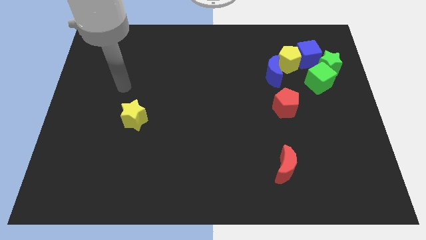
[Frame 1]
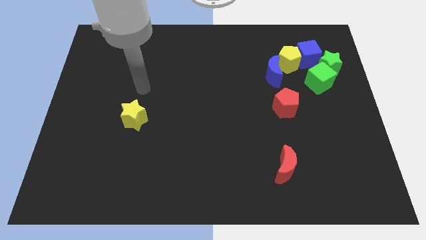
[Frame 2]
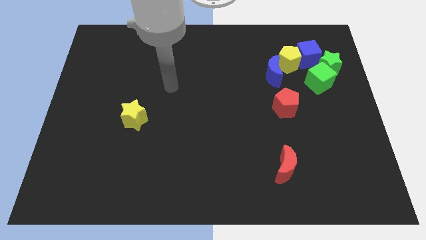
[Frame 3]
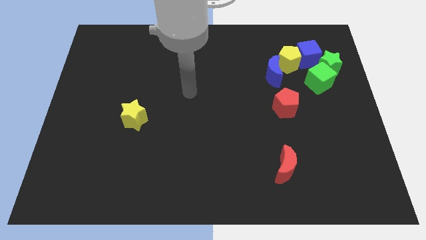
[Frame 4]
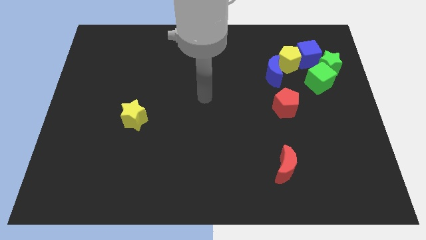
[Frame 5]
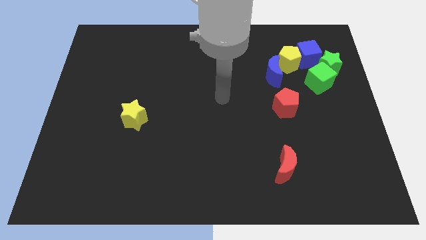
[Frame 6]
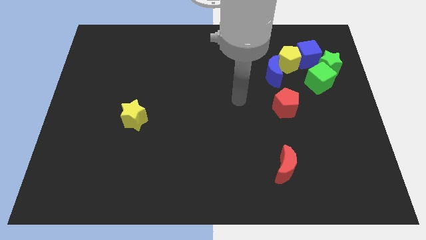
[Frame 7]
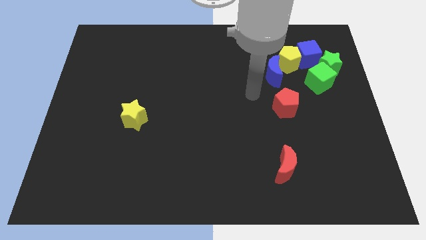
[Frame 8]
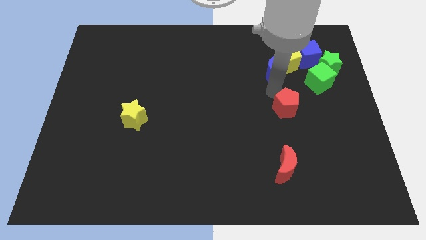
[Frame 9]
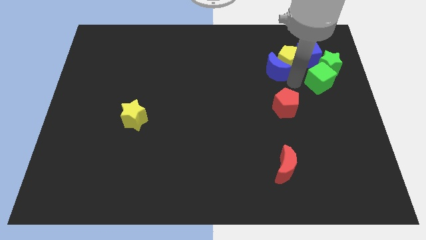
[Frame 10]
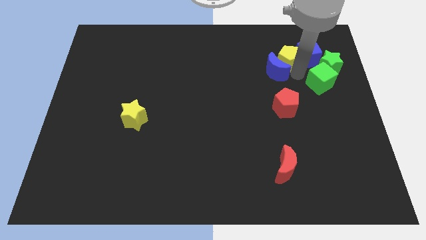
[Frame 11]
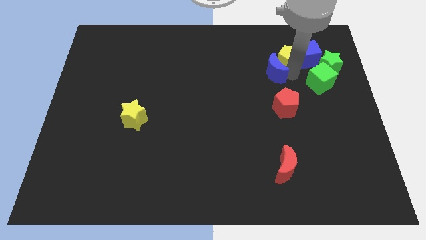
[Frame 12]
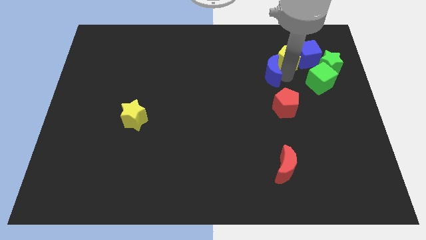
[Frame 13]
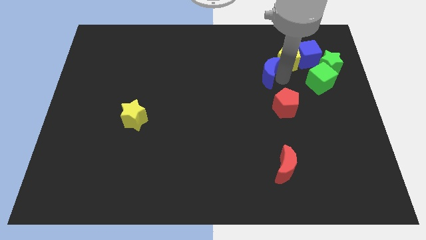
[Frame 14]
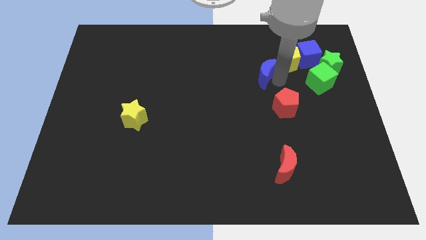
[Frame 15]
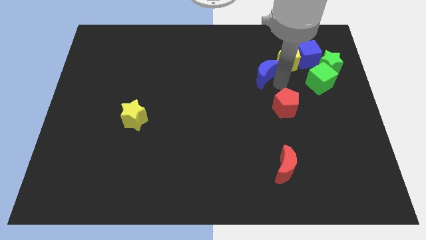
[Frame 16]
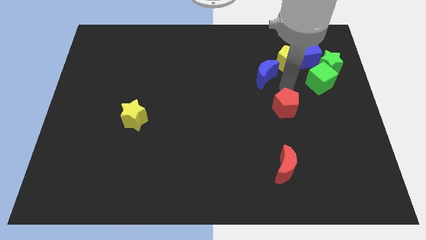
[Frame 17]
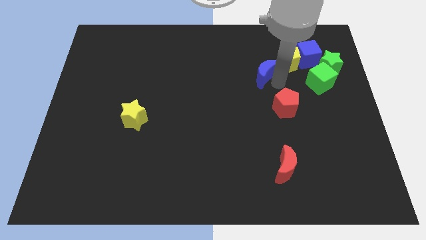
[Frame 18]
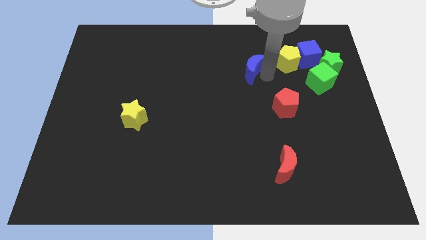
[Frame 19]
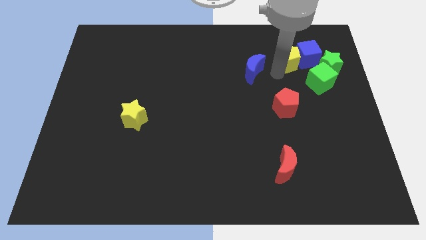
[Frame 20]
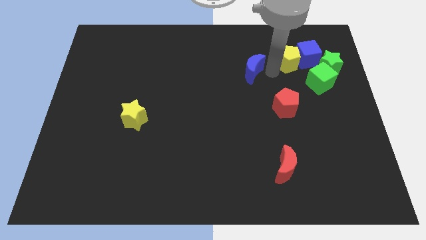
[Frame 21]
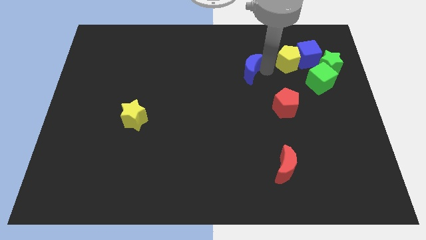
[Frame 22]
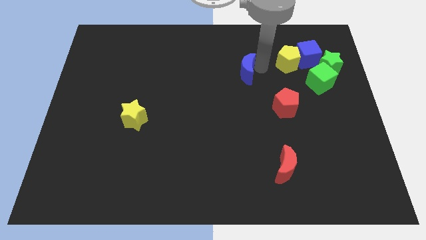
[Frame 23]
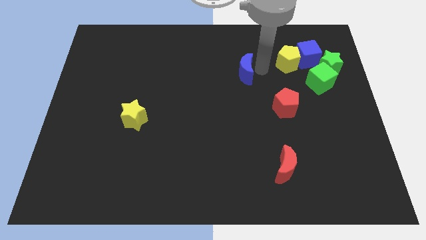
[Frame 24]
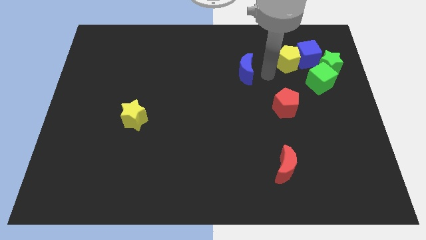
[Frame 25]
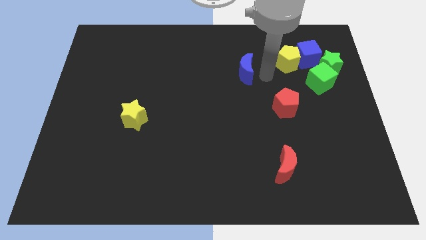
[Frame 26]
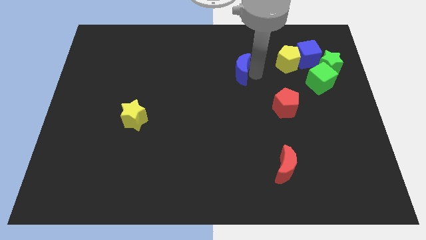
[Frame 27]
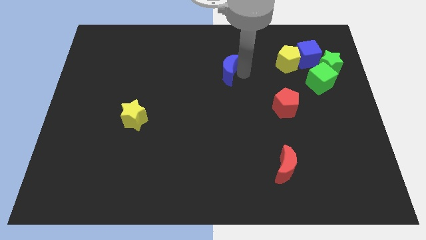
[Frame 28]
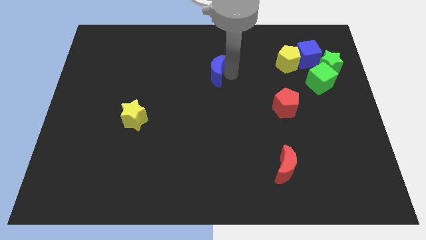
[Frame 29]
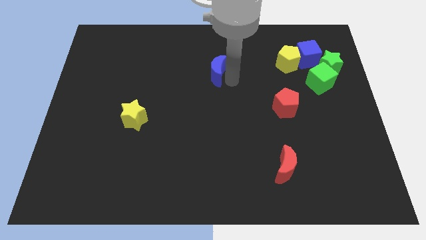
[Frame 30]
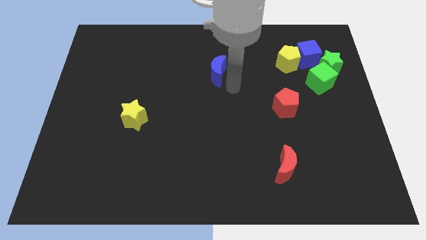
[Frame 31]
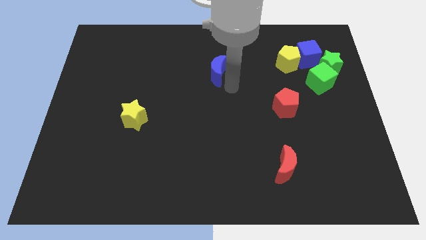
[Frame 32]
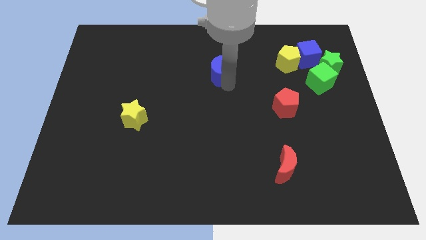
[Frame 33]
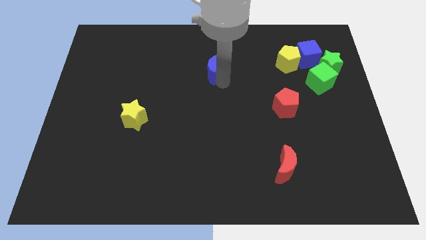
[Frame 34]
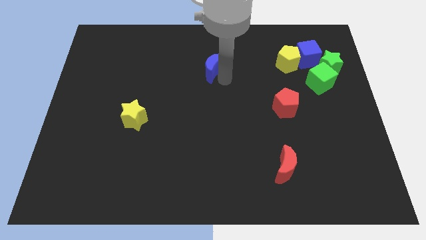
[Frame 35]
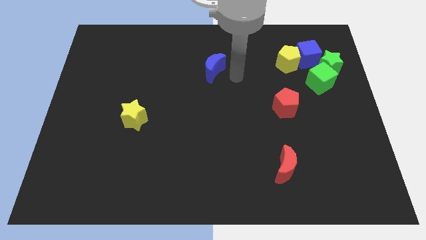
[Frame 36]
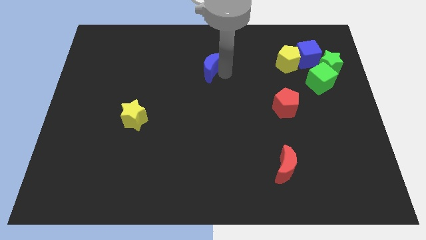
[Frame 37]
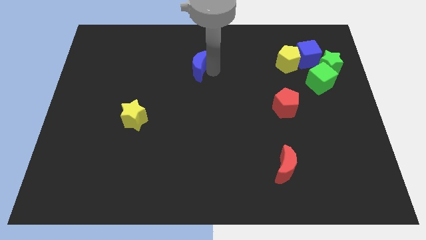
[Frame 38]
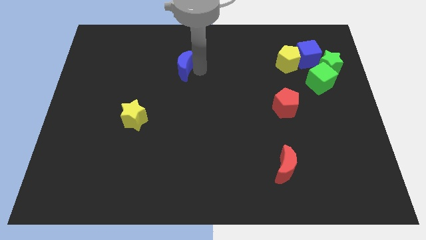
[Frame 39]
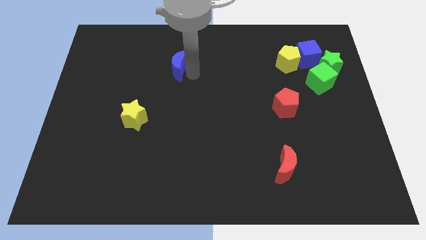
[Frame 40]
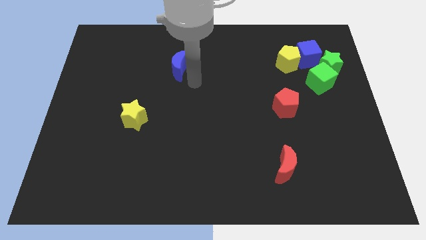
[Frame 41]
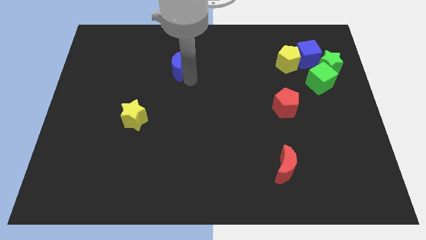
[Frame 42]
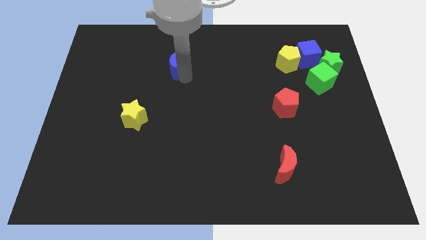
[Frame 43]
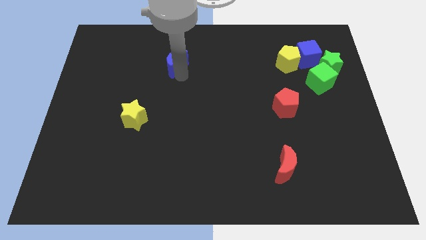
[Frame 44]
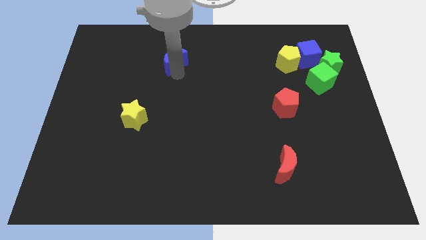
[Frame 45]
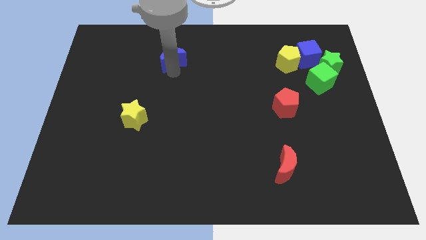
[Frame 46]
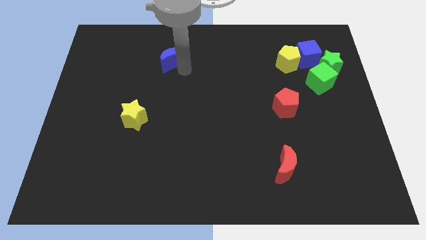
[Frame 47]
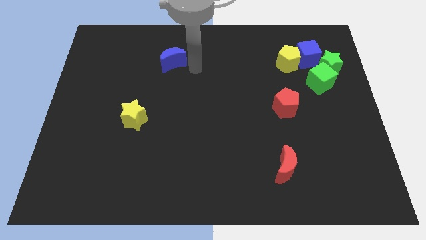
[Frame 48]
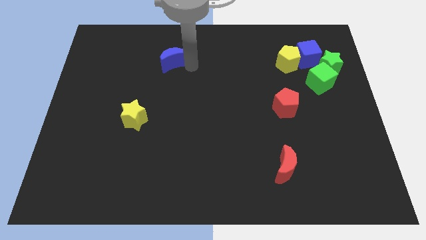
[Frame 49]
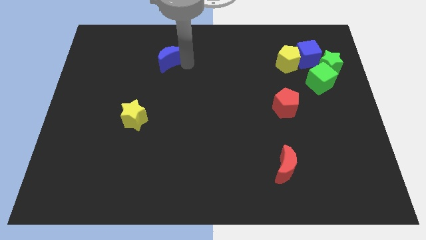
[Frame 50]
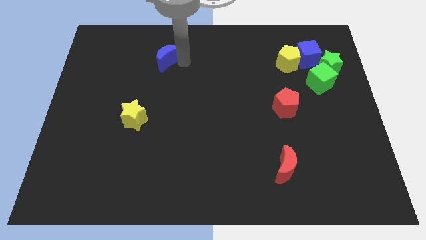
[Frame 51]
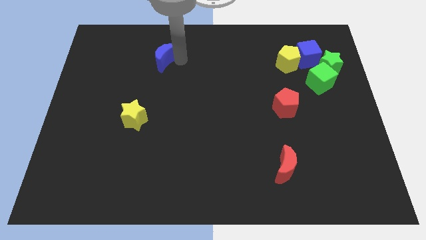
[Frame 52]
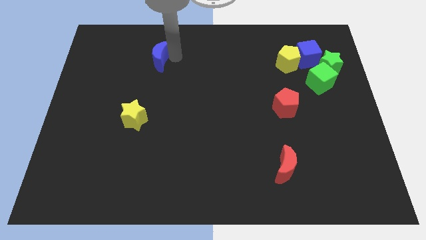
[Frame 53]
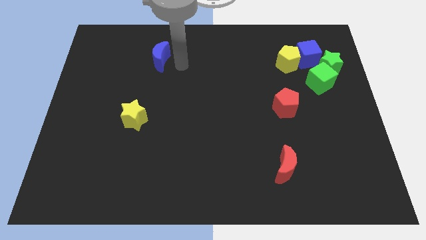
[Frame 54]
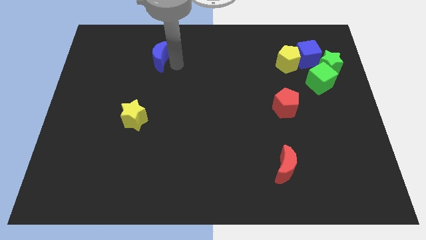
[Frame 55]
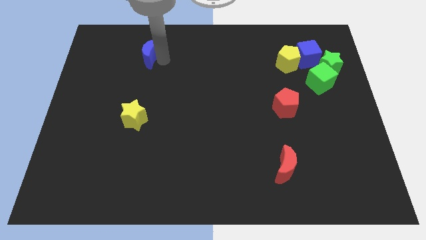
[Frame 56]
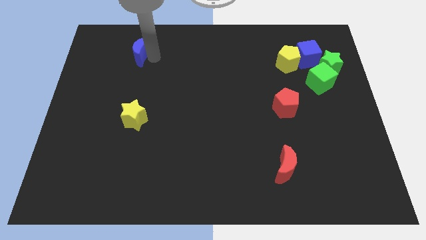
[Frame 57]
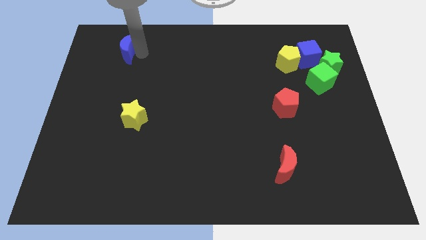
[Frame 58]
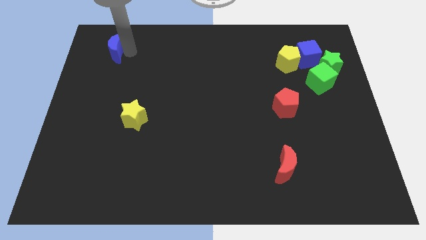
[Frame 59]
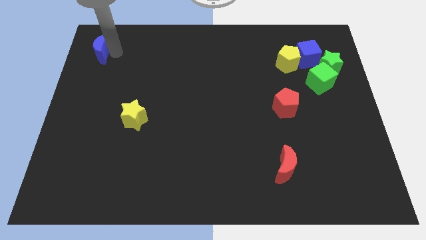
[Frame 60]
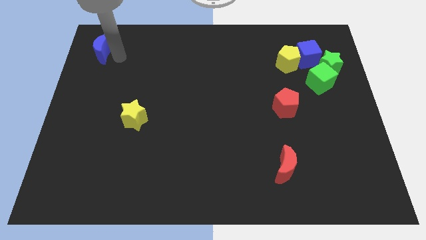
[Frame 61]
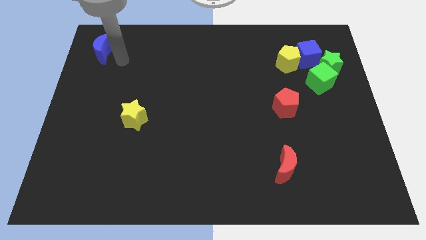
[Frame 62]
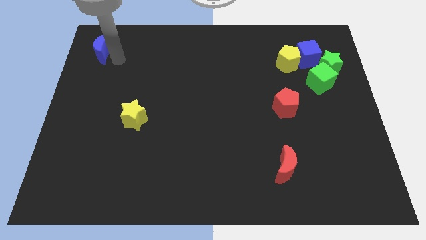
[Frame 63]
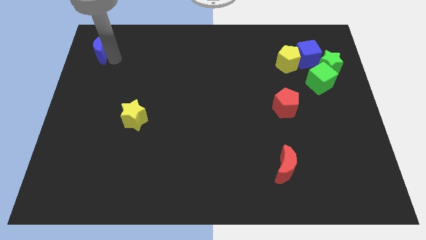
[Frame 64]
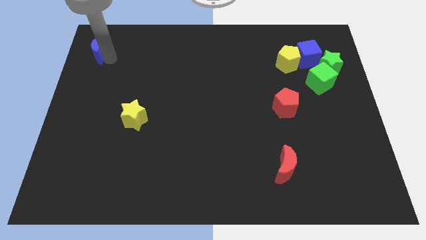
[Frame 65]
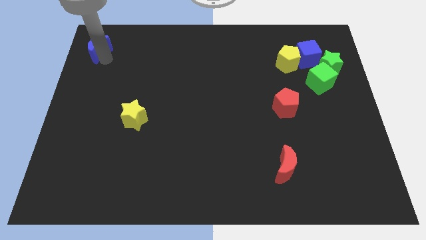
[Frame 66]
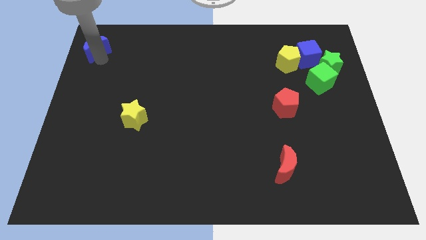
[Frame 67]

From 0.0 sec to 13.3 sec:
slide the blue moon to the top left
